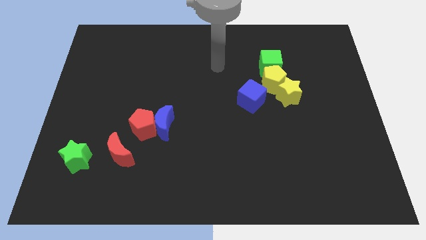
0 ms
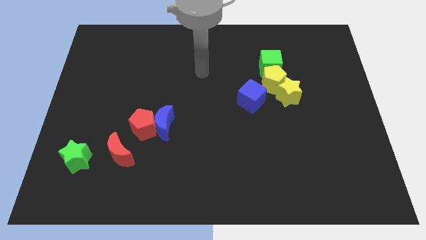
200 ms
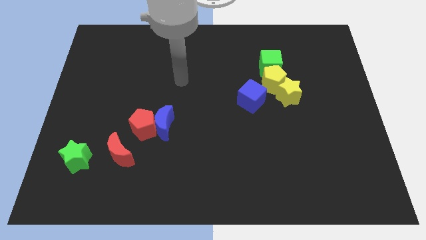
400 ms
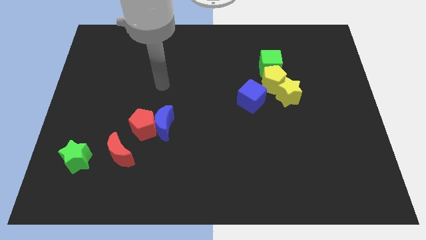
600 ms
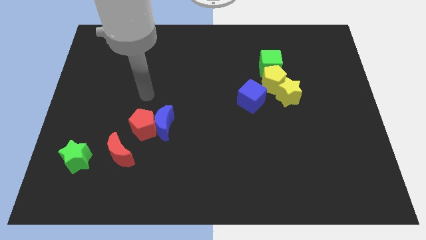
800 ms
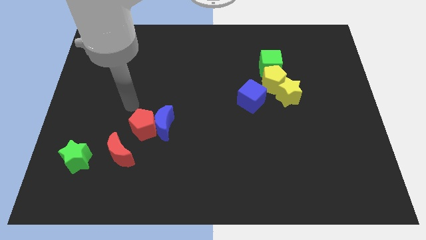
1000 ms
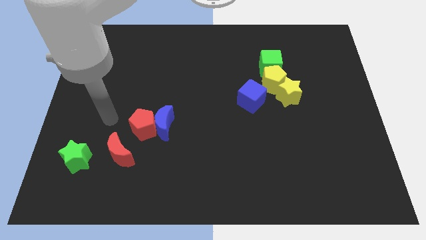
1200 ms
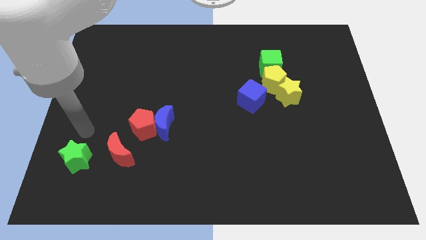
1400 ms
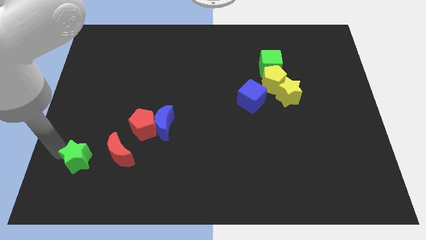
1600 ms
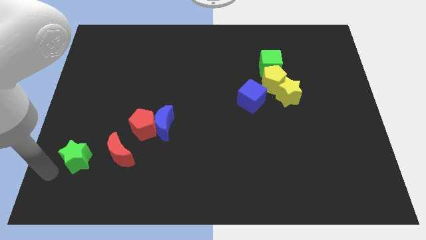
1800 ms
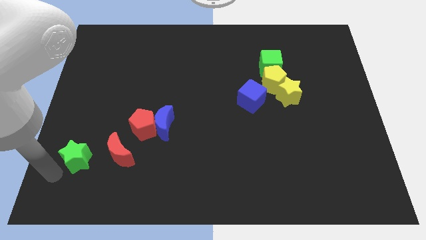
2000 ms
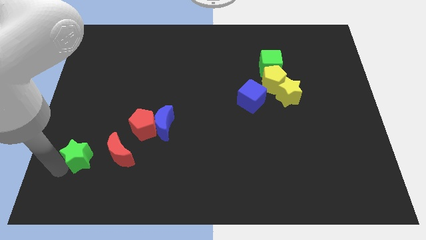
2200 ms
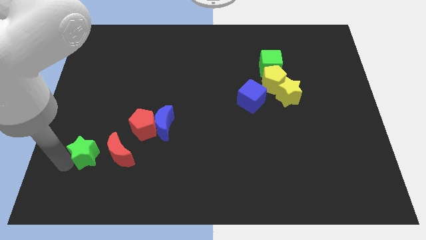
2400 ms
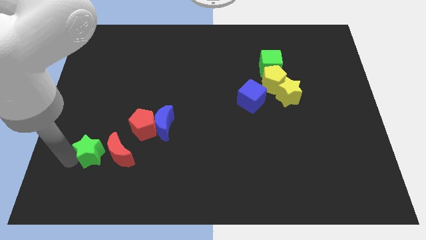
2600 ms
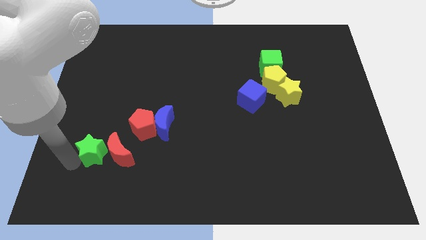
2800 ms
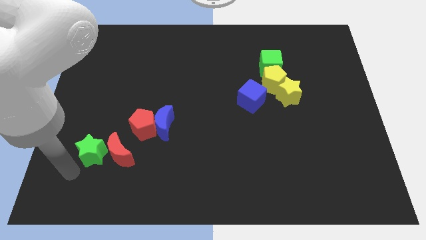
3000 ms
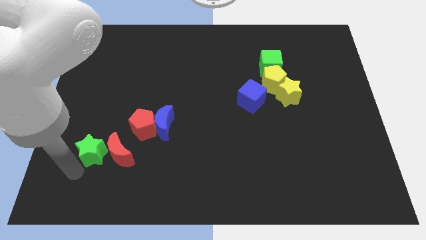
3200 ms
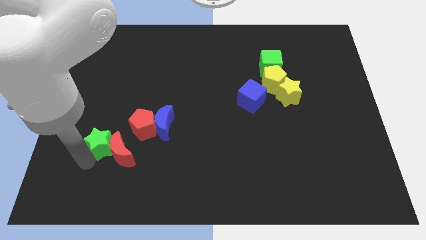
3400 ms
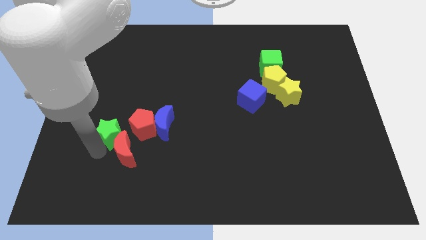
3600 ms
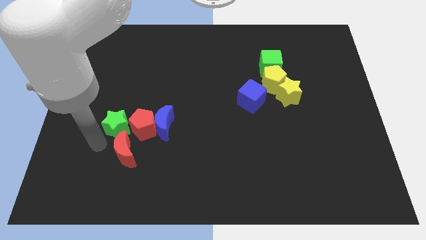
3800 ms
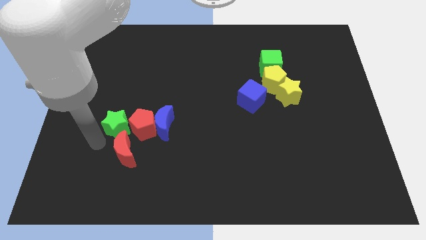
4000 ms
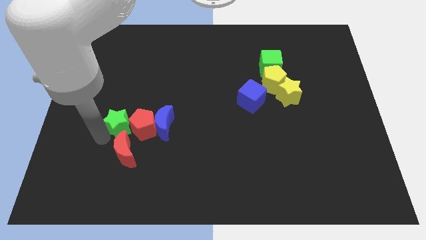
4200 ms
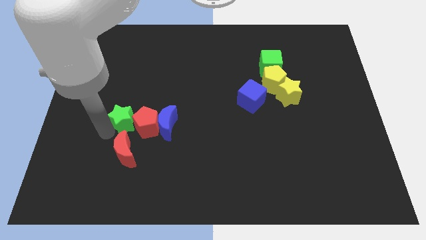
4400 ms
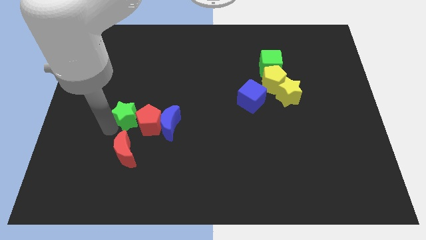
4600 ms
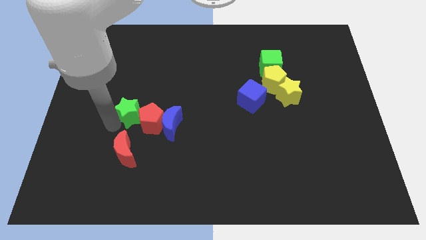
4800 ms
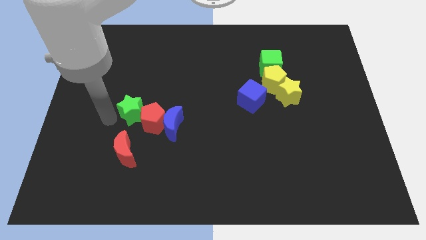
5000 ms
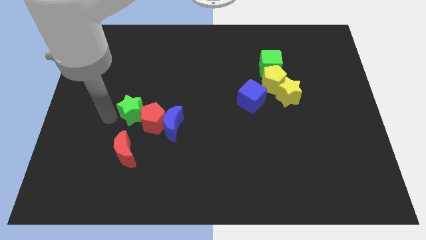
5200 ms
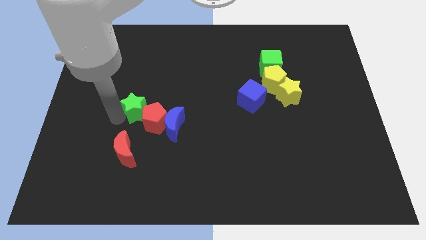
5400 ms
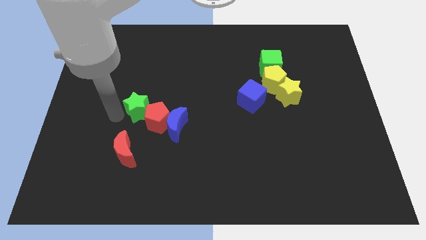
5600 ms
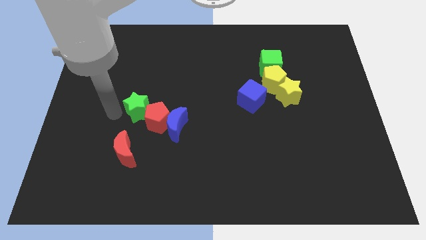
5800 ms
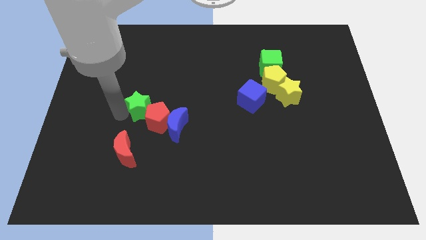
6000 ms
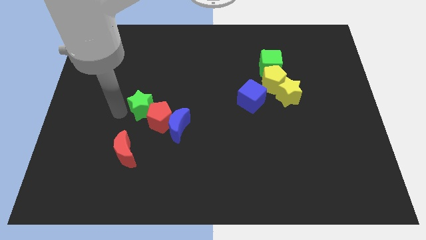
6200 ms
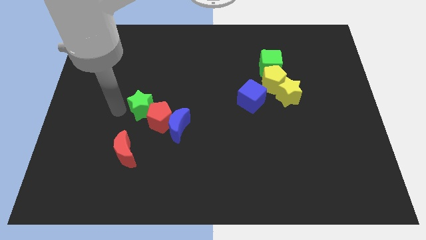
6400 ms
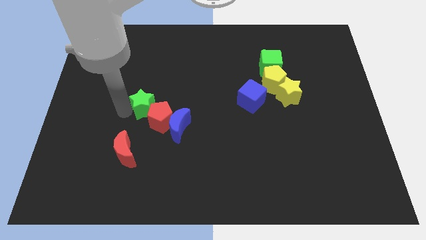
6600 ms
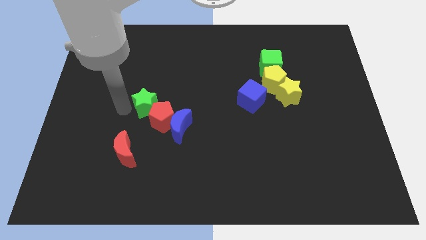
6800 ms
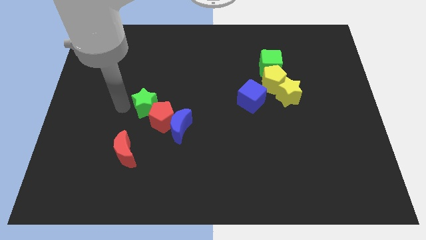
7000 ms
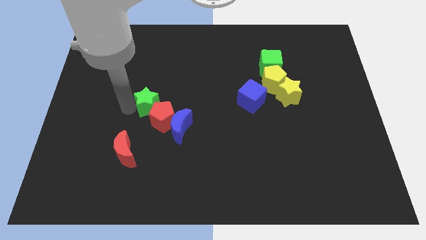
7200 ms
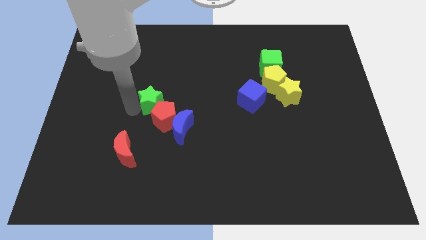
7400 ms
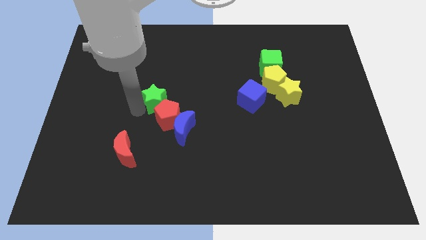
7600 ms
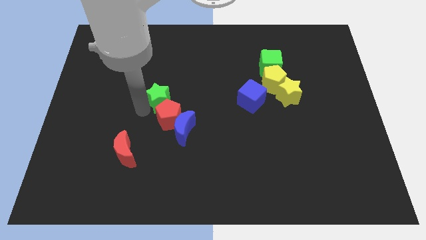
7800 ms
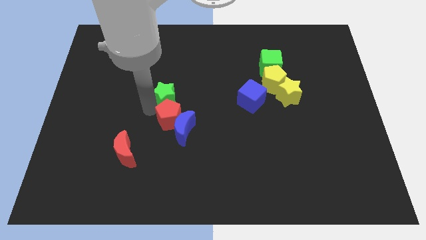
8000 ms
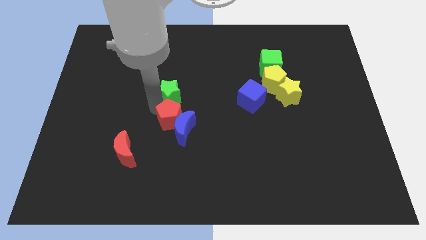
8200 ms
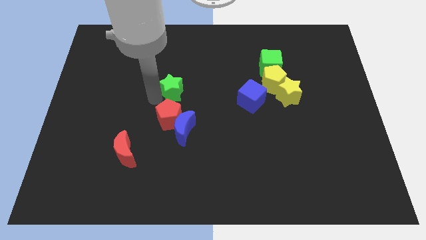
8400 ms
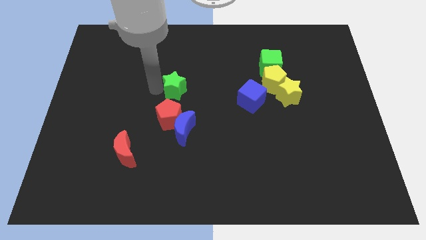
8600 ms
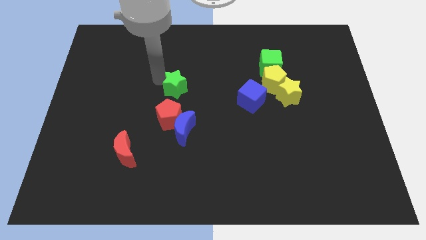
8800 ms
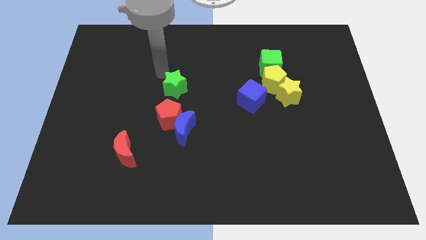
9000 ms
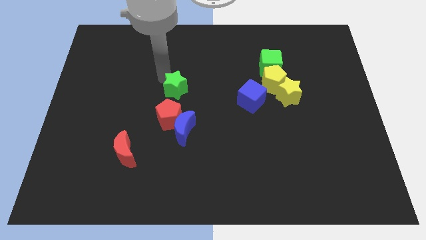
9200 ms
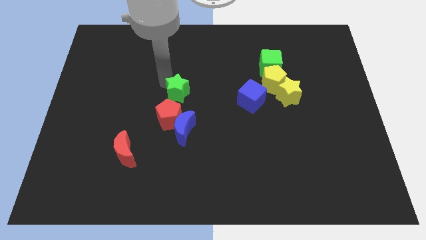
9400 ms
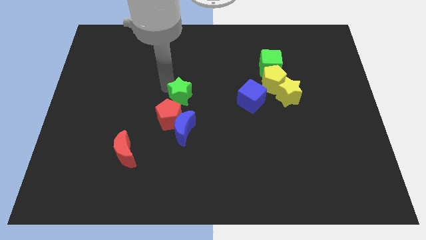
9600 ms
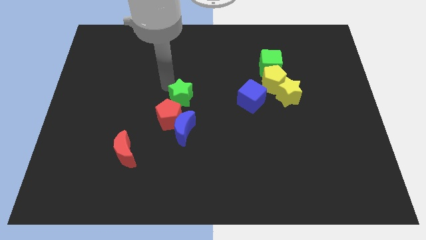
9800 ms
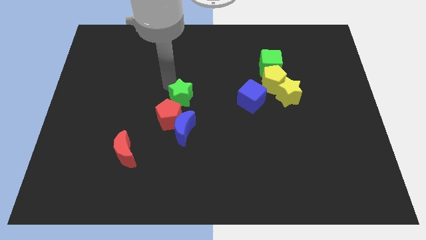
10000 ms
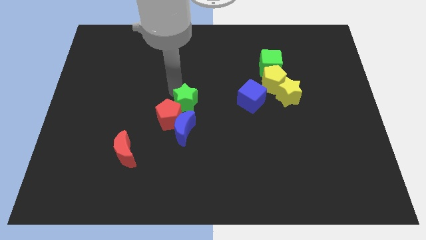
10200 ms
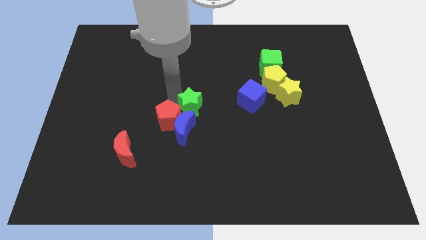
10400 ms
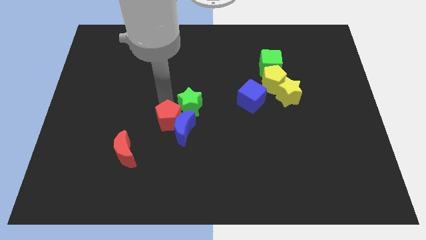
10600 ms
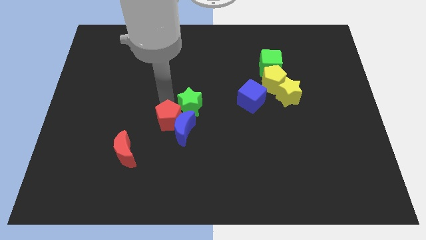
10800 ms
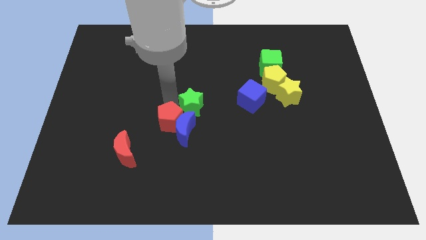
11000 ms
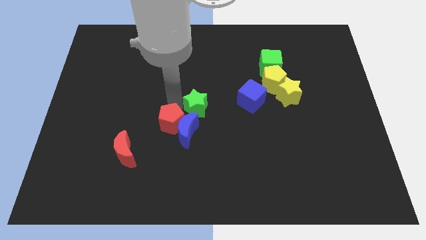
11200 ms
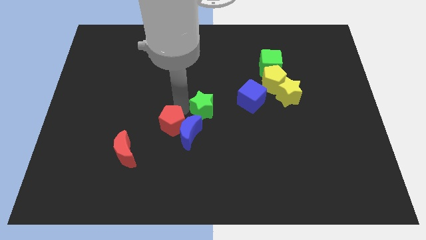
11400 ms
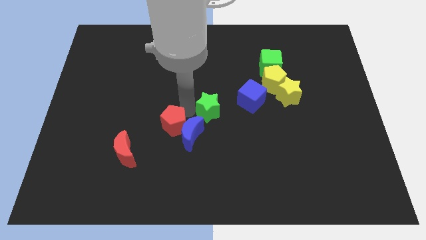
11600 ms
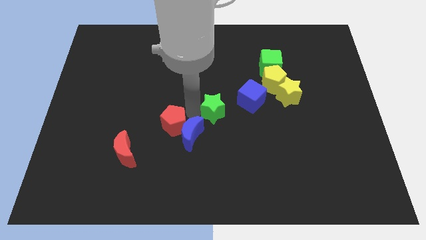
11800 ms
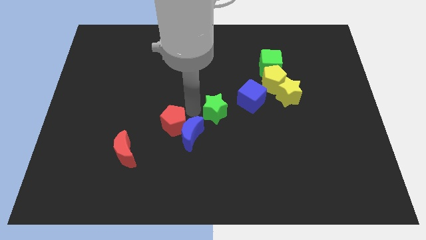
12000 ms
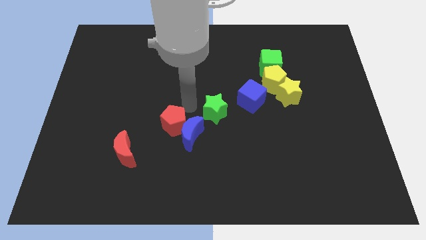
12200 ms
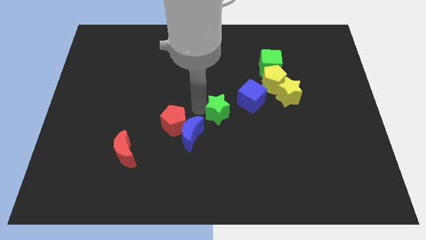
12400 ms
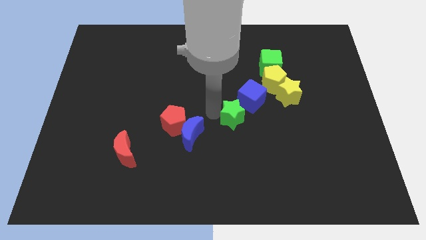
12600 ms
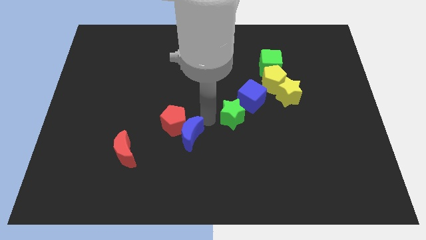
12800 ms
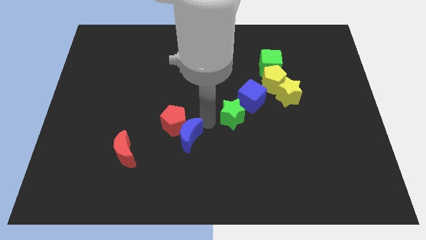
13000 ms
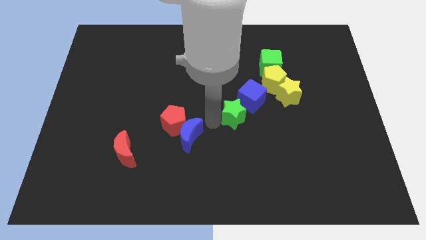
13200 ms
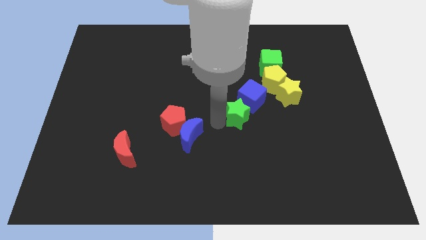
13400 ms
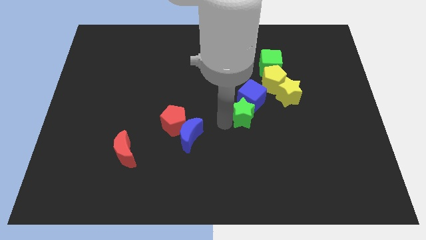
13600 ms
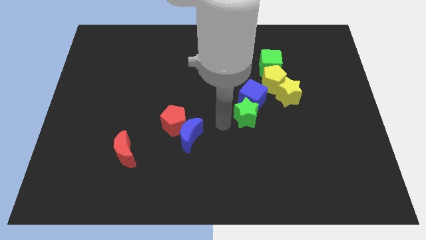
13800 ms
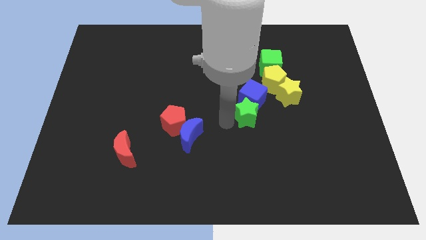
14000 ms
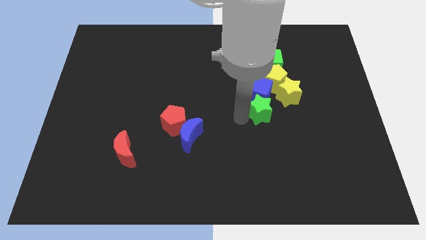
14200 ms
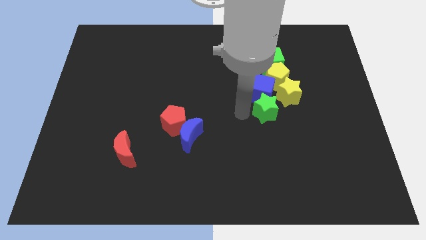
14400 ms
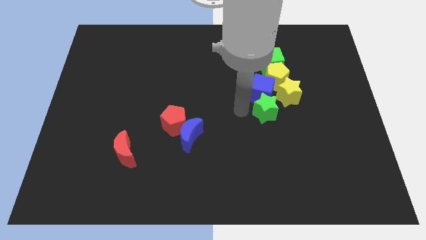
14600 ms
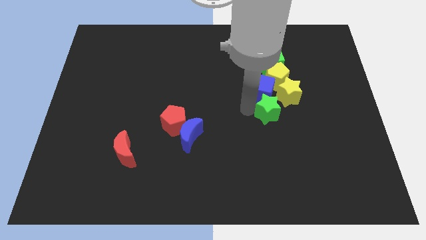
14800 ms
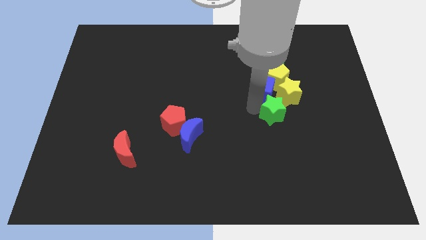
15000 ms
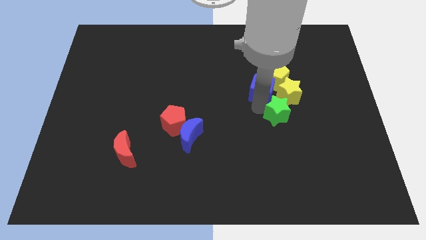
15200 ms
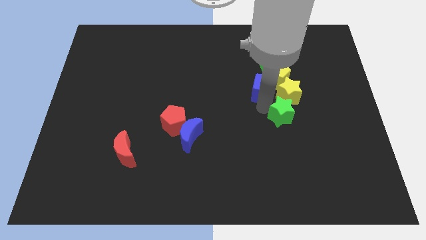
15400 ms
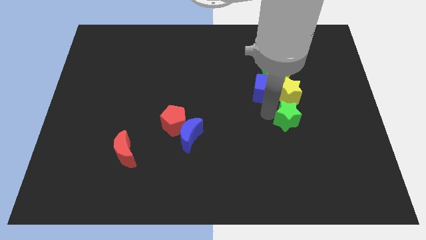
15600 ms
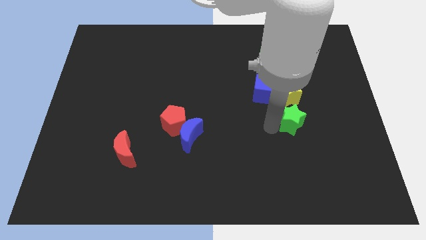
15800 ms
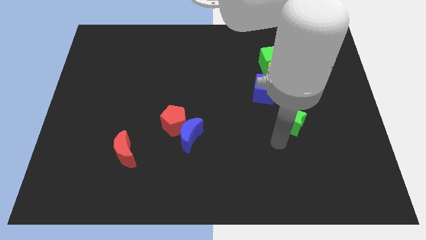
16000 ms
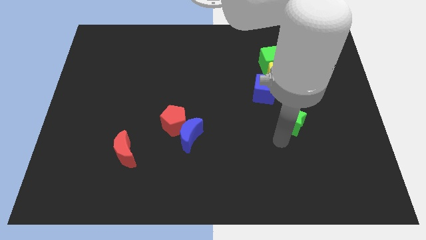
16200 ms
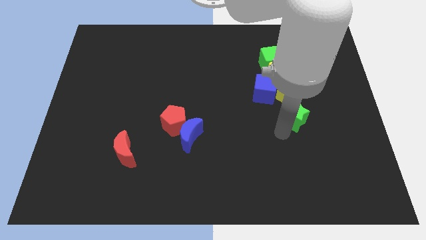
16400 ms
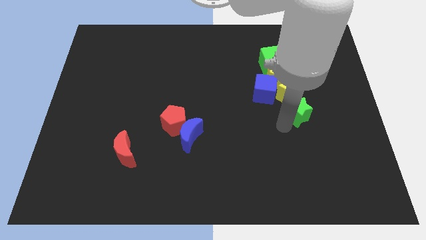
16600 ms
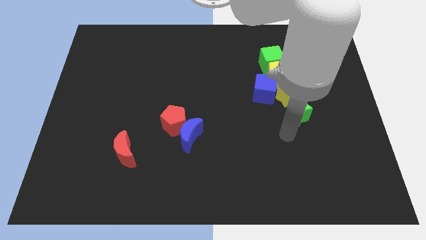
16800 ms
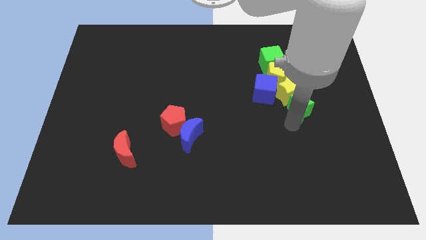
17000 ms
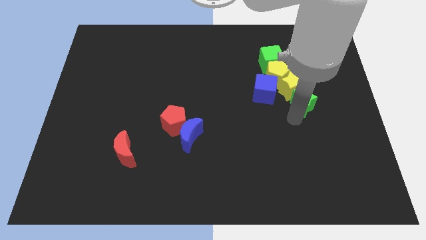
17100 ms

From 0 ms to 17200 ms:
move the green star to the right side of the blue cube
